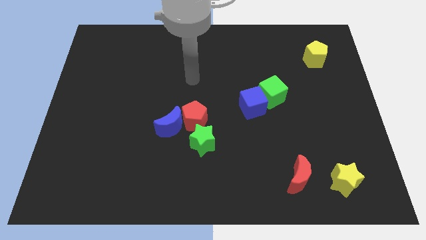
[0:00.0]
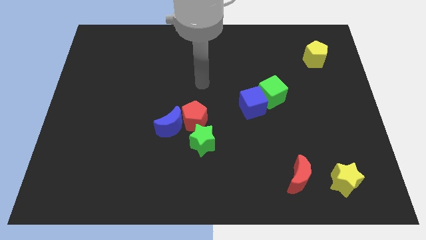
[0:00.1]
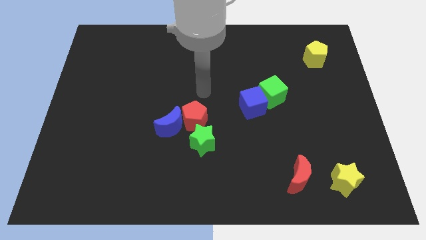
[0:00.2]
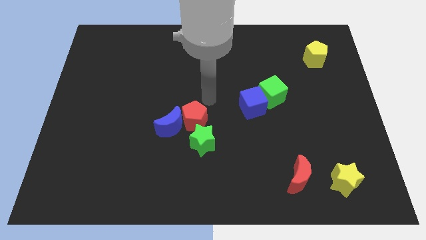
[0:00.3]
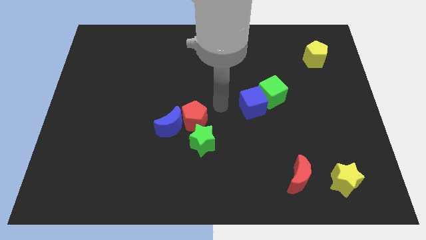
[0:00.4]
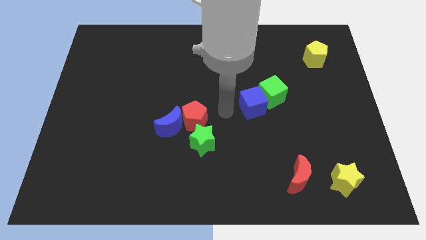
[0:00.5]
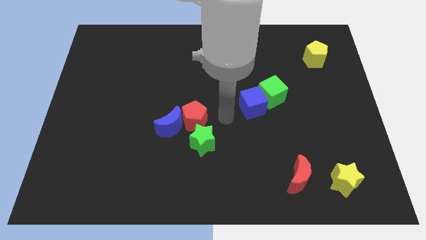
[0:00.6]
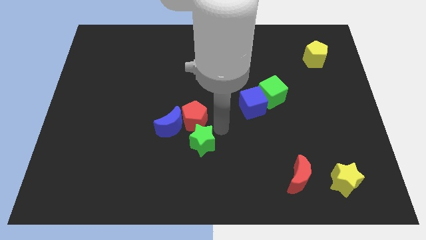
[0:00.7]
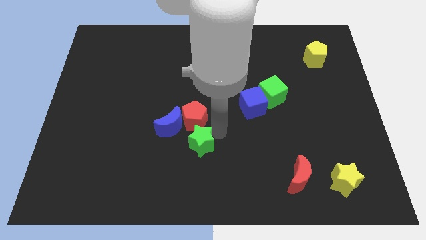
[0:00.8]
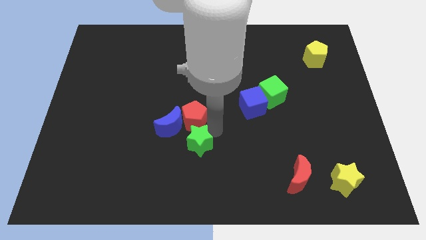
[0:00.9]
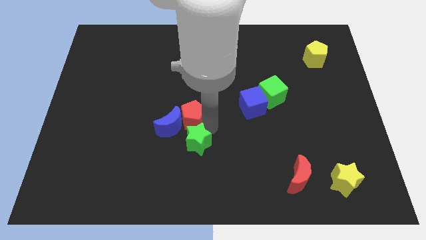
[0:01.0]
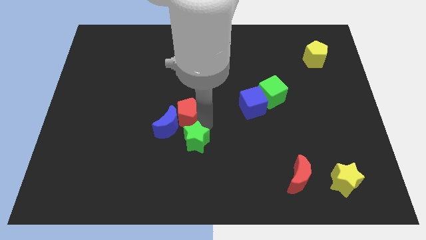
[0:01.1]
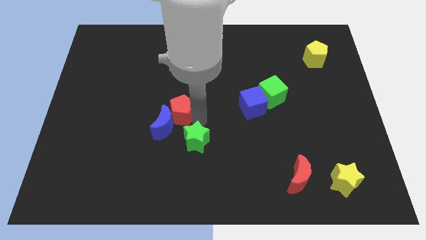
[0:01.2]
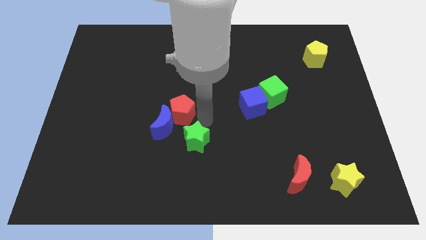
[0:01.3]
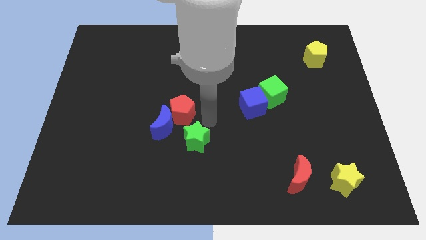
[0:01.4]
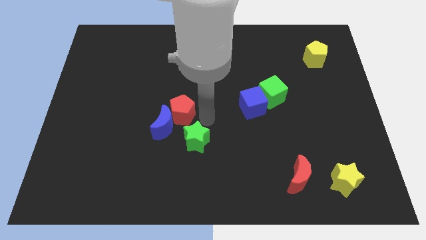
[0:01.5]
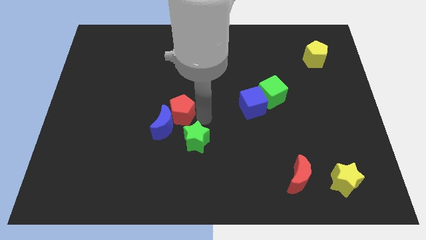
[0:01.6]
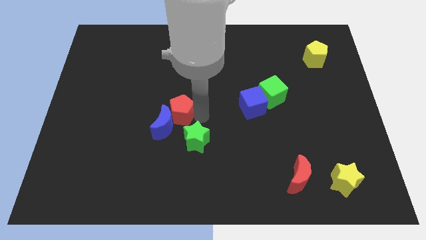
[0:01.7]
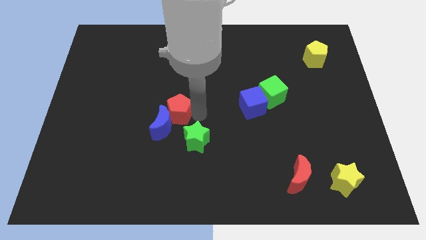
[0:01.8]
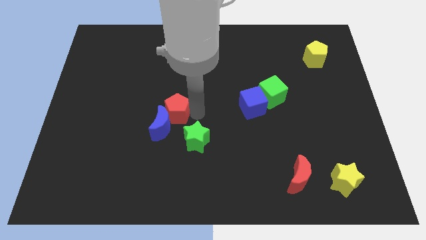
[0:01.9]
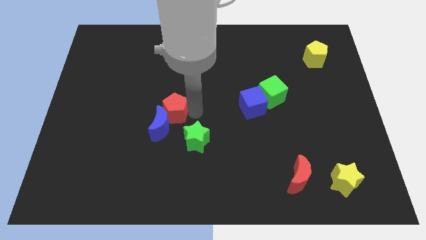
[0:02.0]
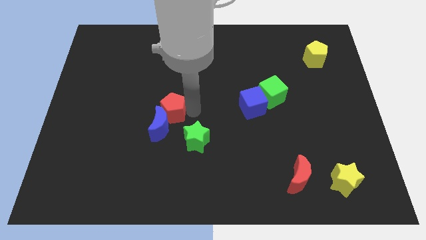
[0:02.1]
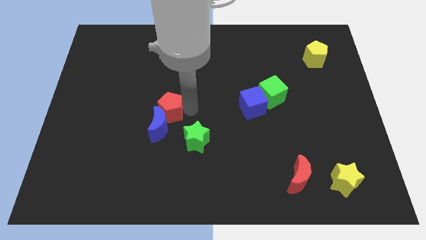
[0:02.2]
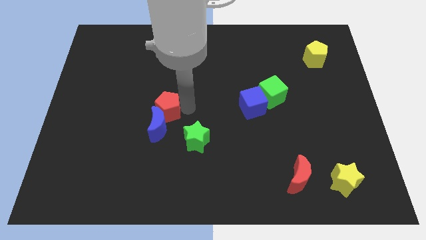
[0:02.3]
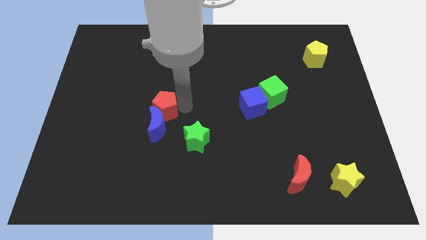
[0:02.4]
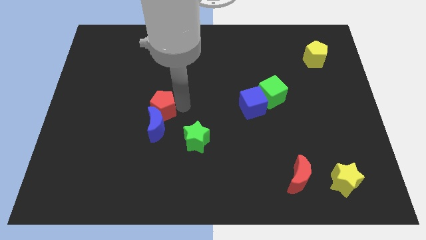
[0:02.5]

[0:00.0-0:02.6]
slightly push the red pentagon to the left

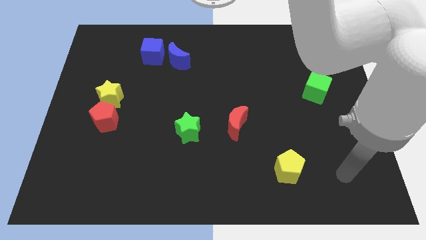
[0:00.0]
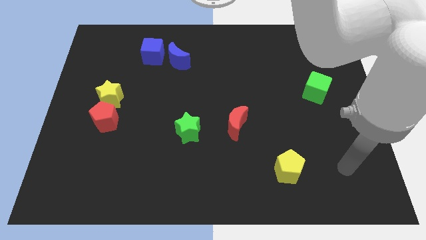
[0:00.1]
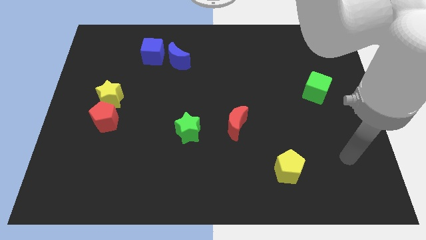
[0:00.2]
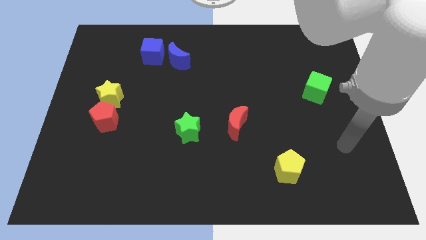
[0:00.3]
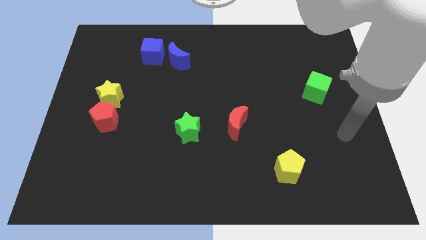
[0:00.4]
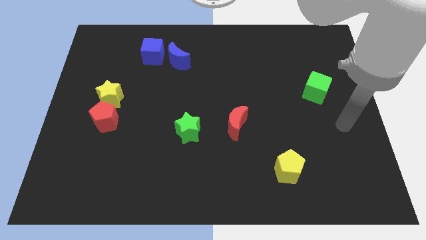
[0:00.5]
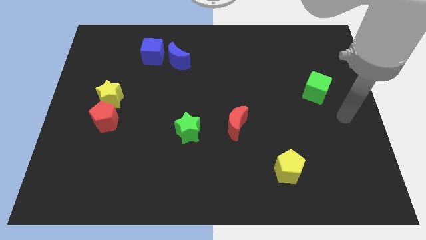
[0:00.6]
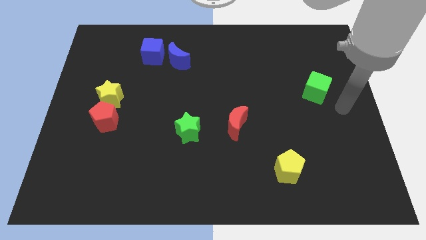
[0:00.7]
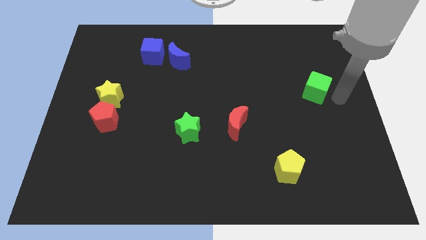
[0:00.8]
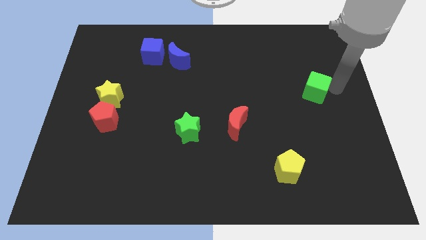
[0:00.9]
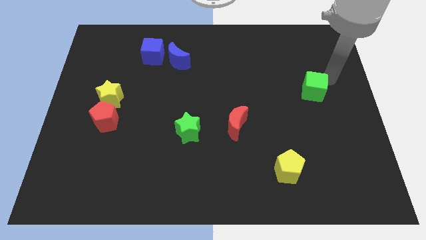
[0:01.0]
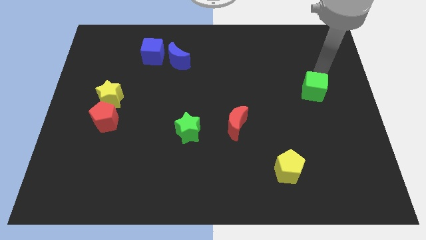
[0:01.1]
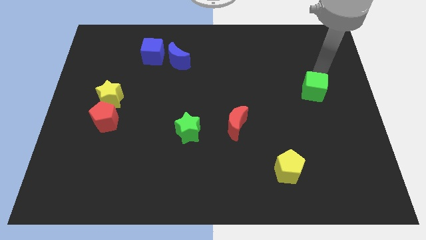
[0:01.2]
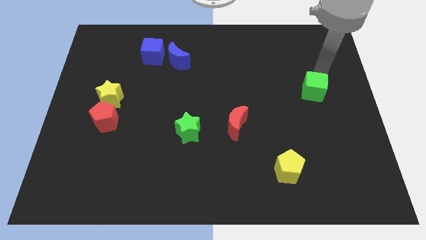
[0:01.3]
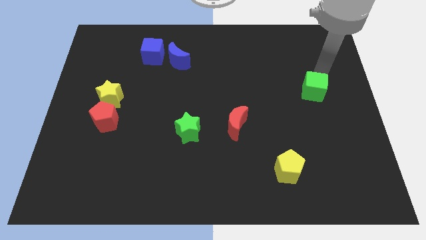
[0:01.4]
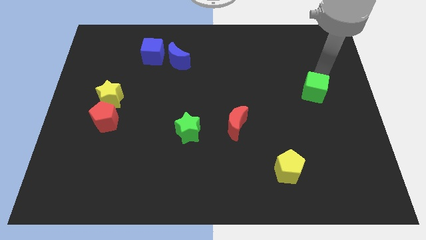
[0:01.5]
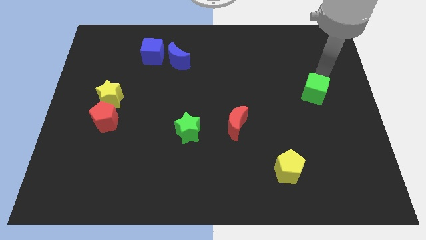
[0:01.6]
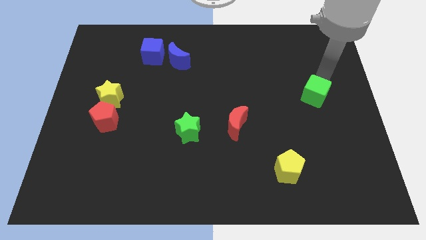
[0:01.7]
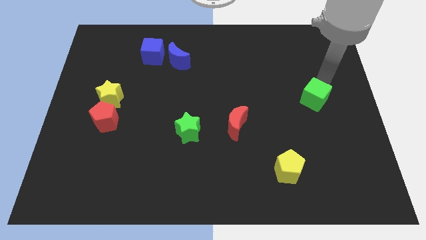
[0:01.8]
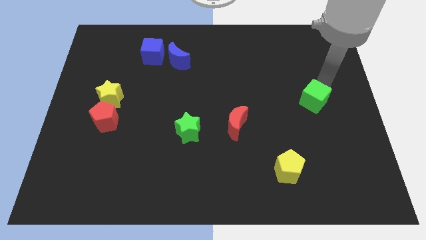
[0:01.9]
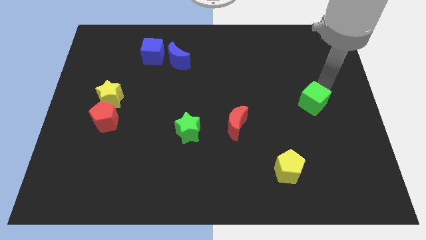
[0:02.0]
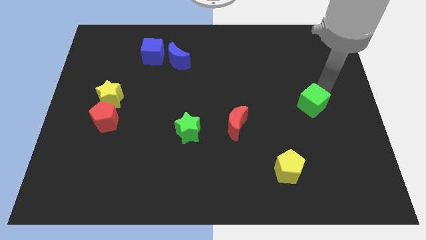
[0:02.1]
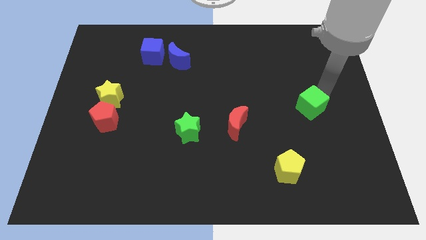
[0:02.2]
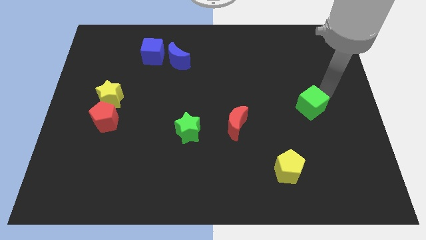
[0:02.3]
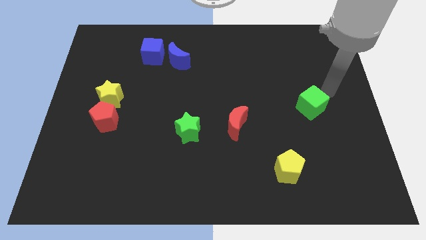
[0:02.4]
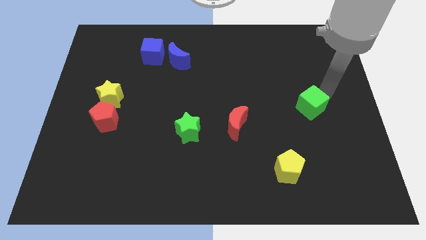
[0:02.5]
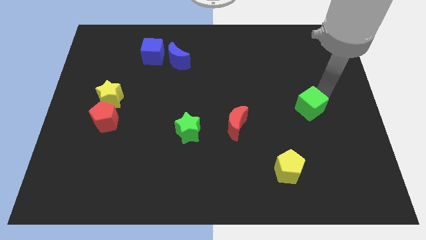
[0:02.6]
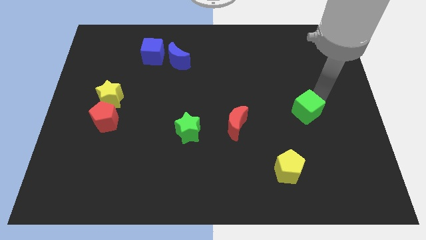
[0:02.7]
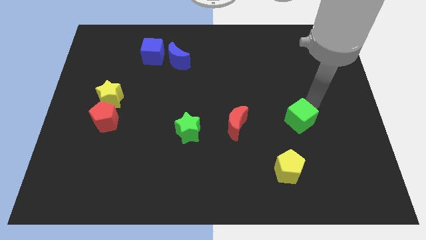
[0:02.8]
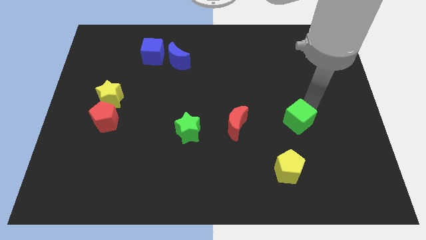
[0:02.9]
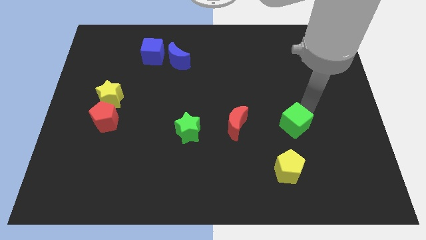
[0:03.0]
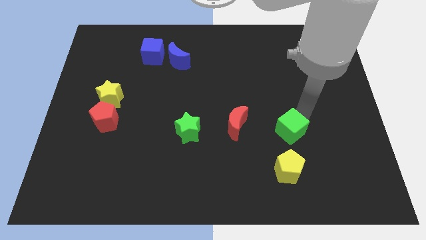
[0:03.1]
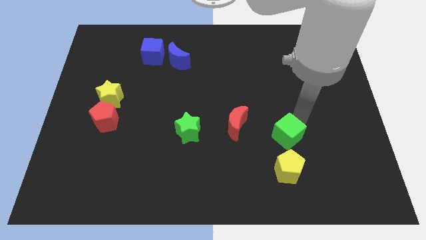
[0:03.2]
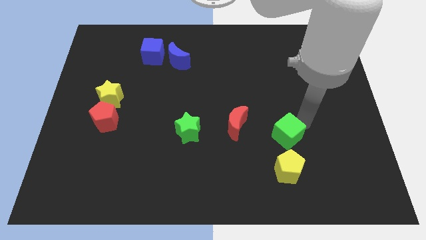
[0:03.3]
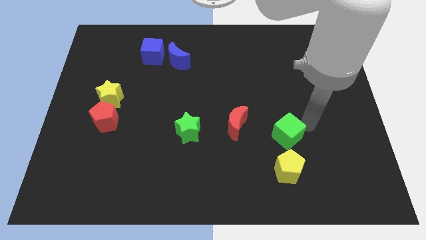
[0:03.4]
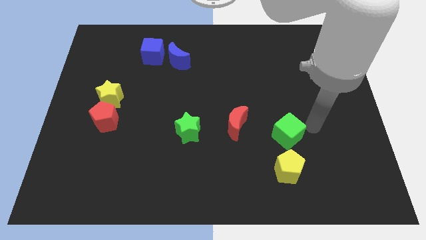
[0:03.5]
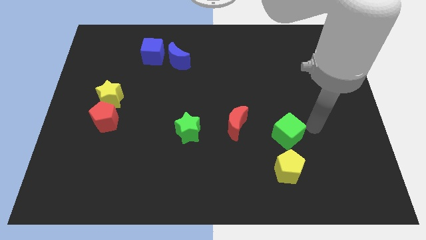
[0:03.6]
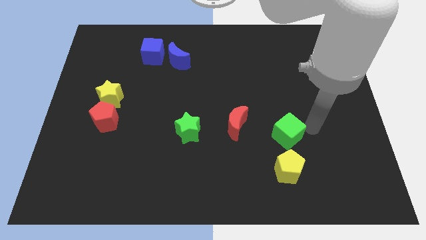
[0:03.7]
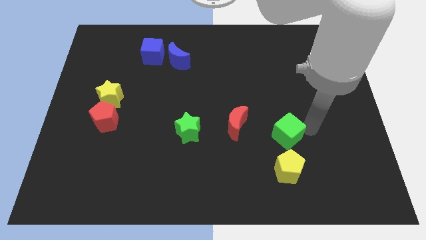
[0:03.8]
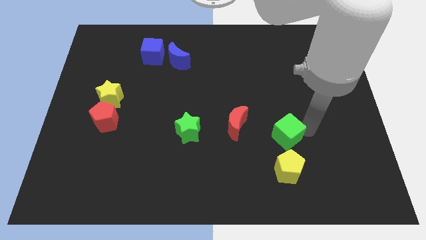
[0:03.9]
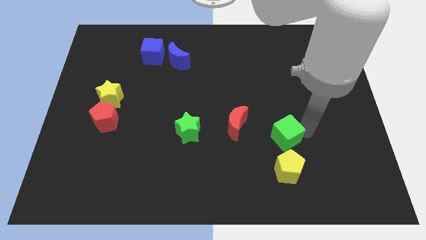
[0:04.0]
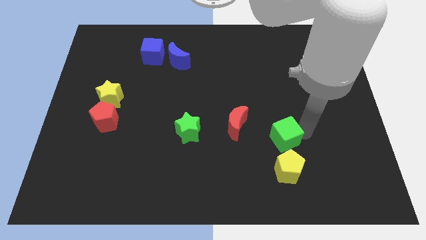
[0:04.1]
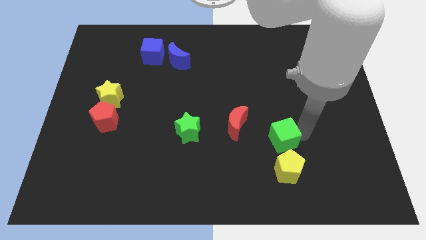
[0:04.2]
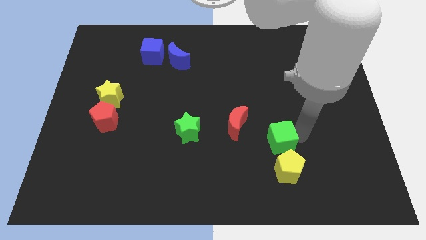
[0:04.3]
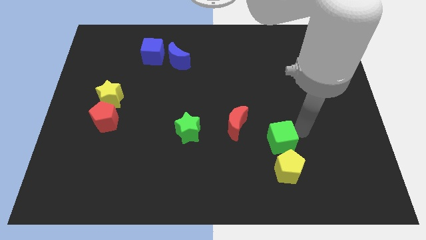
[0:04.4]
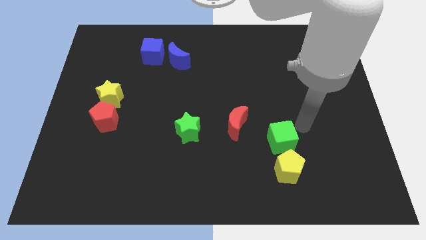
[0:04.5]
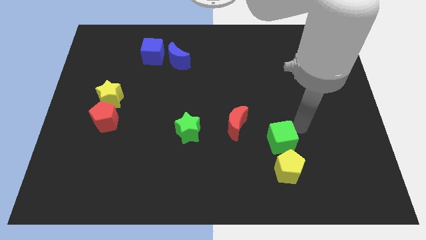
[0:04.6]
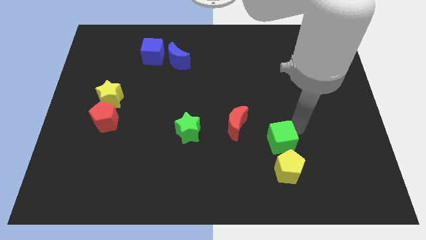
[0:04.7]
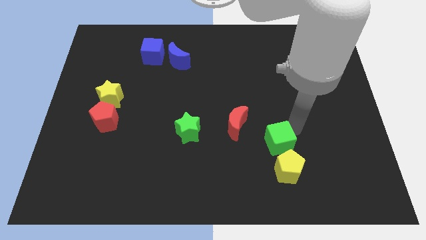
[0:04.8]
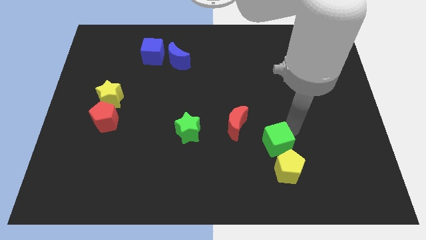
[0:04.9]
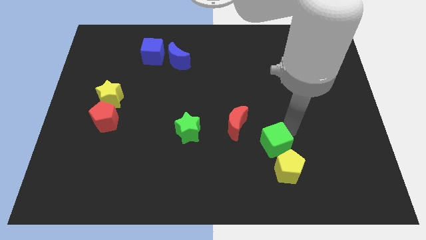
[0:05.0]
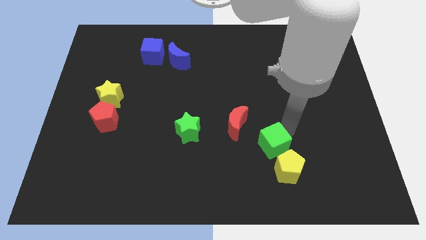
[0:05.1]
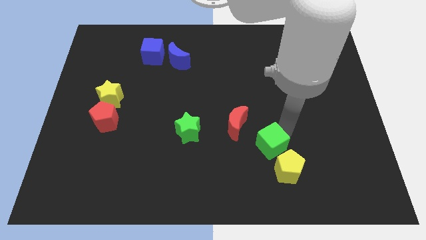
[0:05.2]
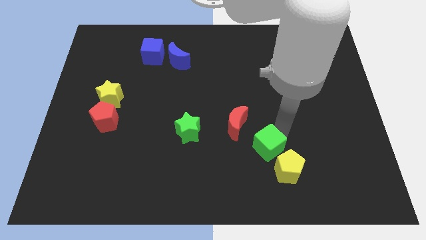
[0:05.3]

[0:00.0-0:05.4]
slide the green cube downwards and left
